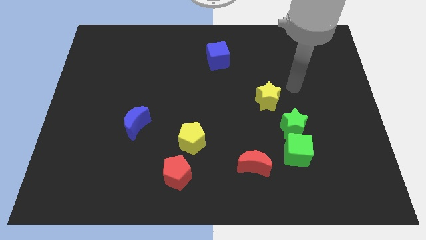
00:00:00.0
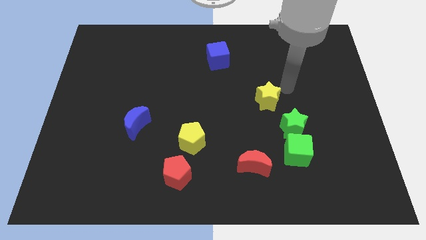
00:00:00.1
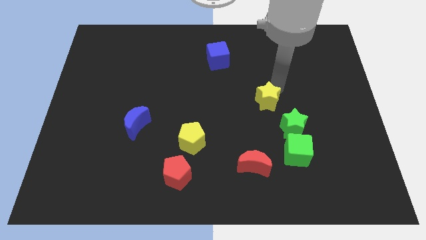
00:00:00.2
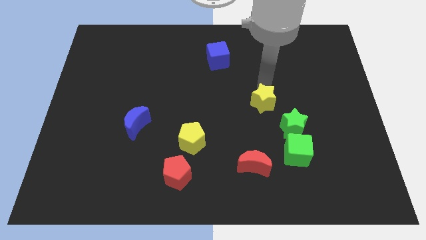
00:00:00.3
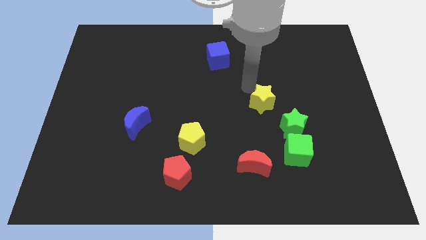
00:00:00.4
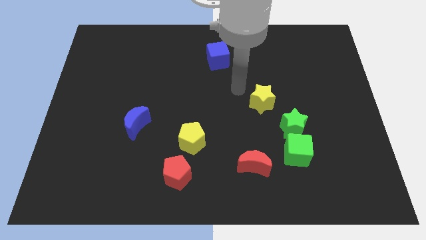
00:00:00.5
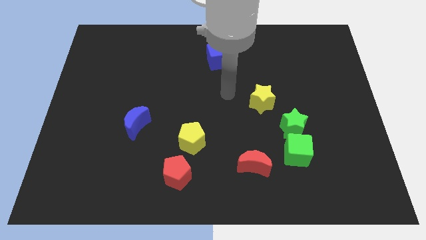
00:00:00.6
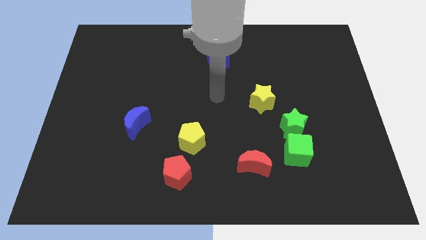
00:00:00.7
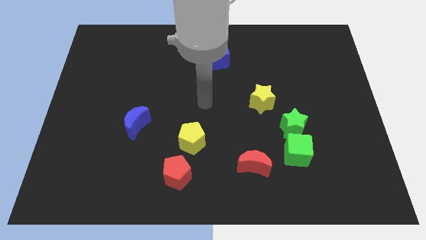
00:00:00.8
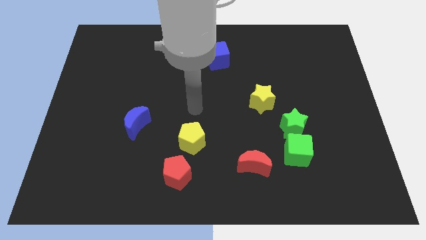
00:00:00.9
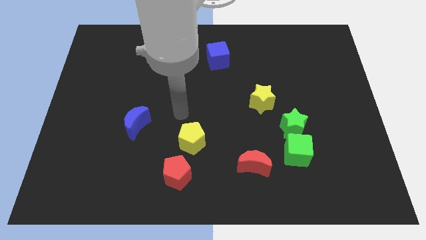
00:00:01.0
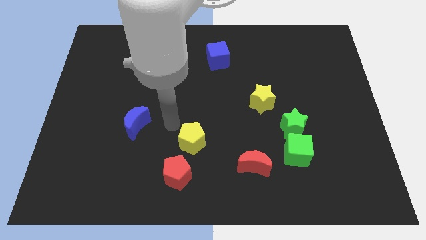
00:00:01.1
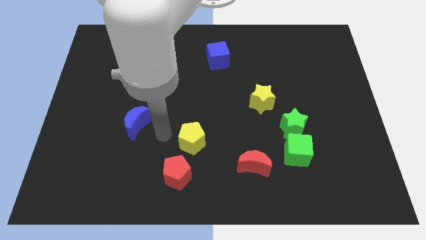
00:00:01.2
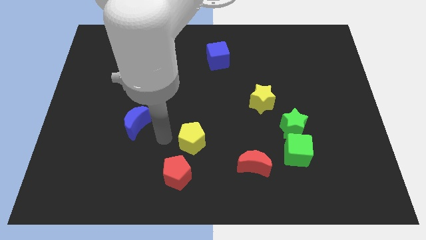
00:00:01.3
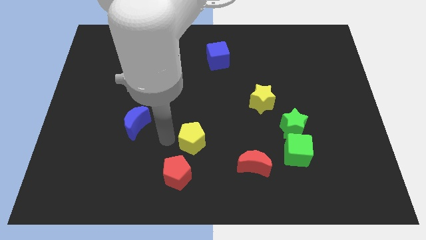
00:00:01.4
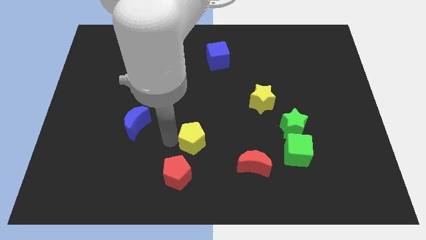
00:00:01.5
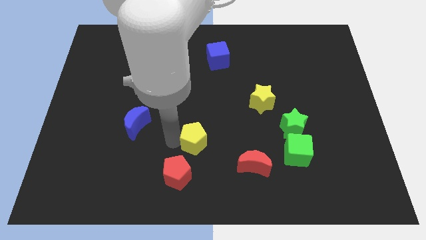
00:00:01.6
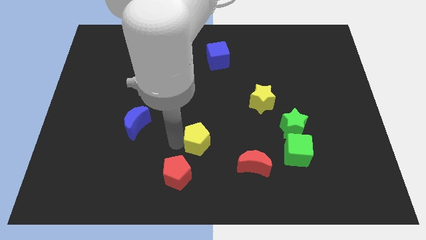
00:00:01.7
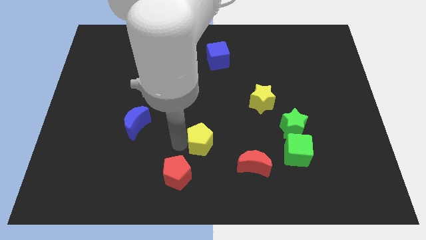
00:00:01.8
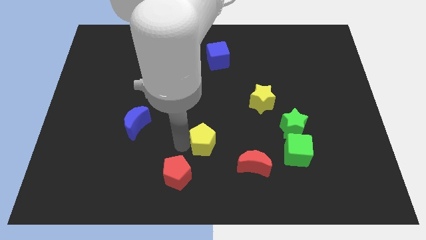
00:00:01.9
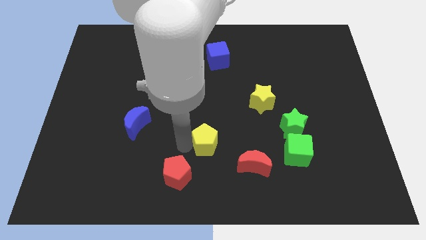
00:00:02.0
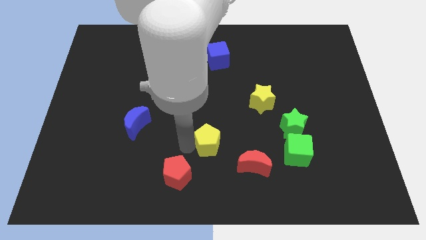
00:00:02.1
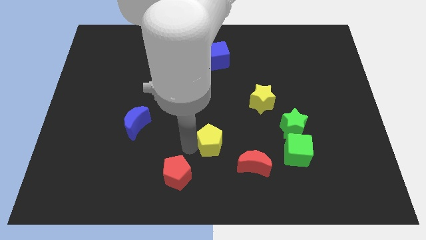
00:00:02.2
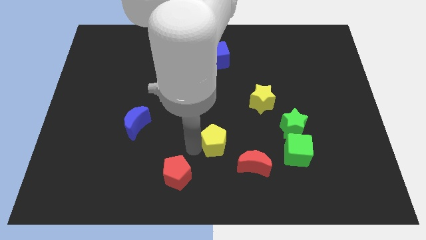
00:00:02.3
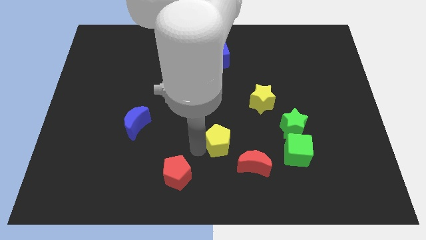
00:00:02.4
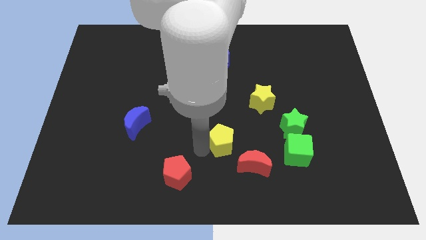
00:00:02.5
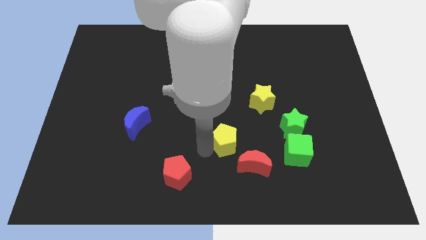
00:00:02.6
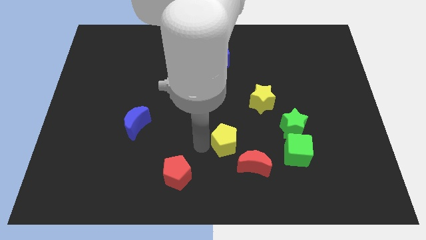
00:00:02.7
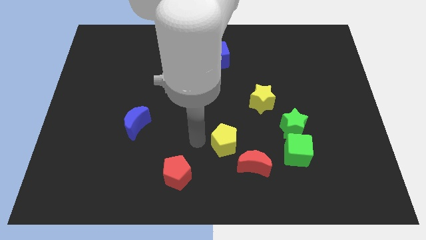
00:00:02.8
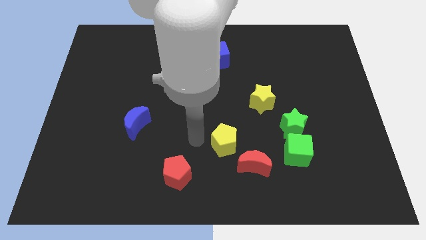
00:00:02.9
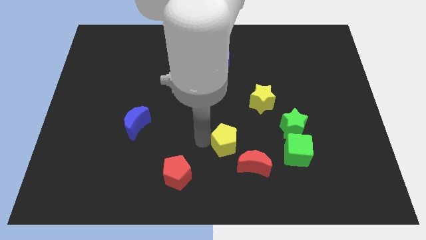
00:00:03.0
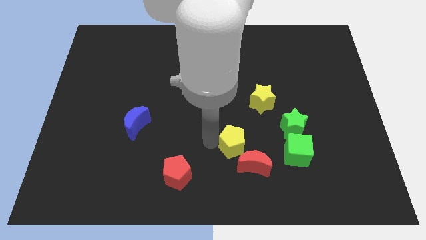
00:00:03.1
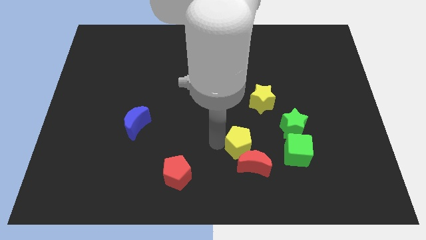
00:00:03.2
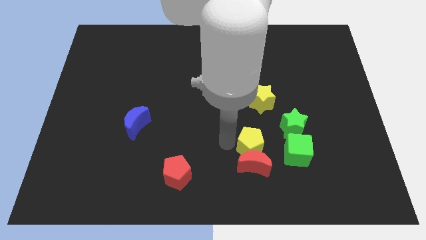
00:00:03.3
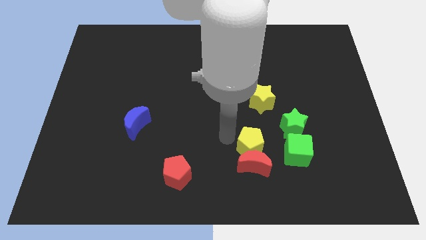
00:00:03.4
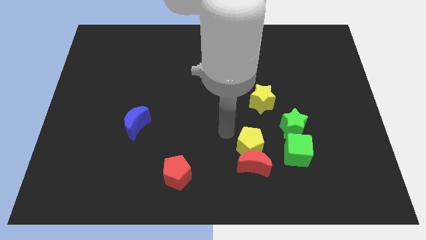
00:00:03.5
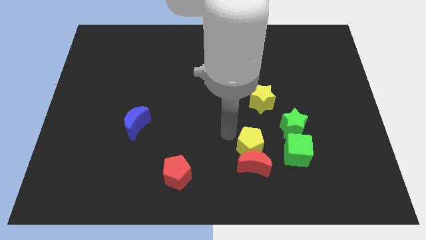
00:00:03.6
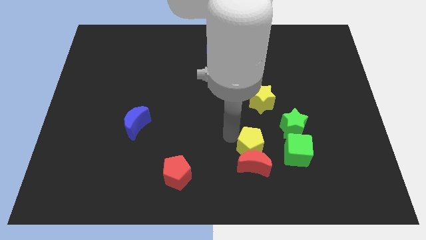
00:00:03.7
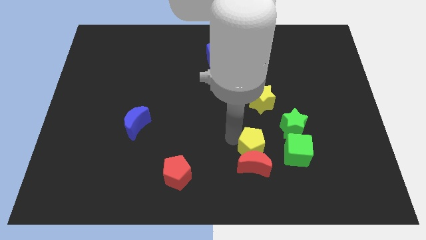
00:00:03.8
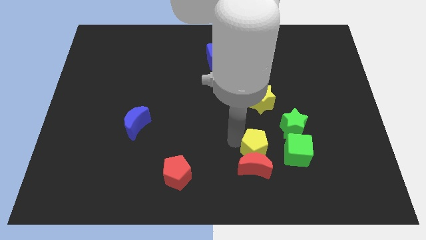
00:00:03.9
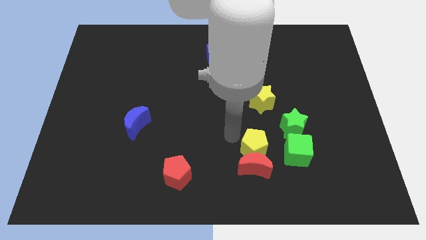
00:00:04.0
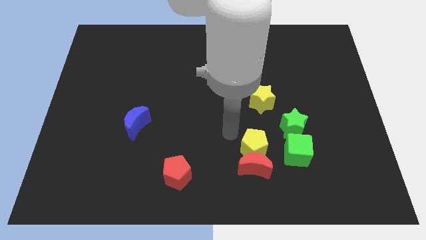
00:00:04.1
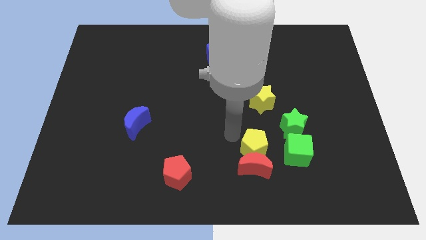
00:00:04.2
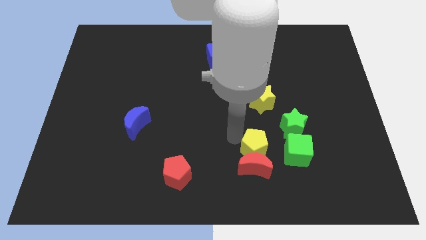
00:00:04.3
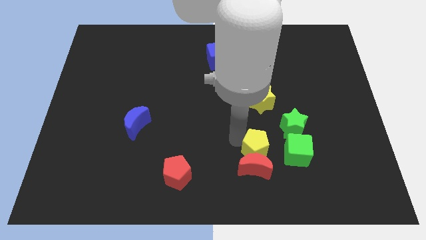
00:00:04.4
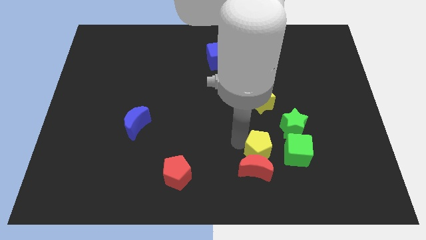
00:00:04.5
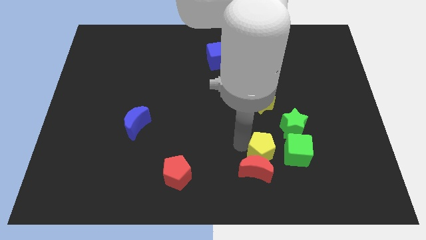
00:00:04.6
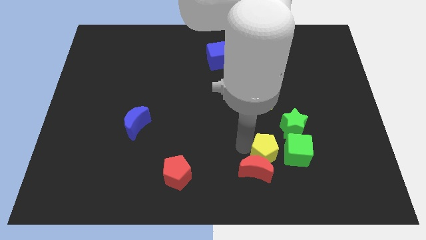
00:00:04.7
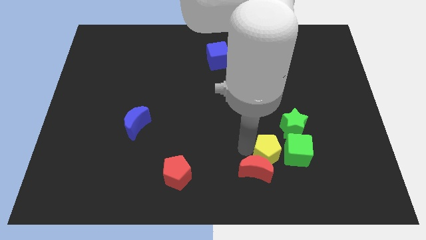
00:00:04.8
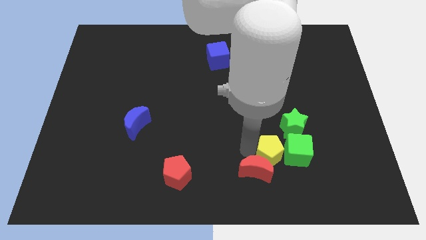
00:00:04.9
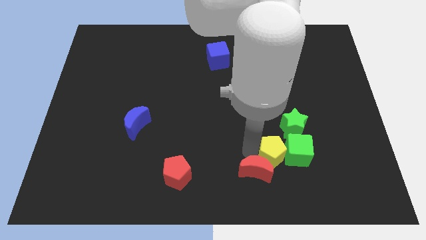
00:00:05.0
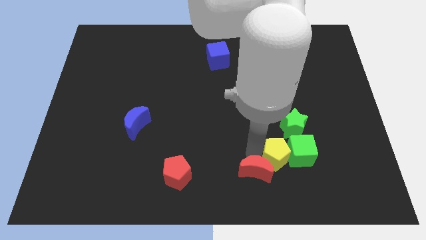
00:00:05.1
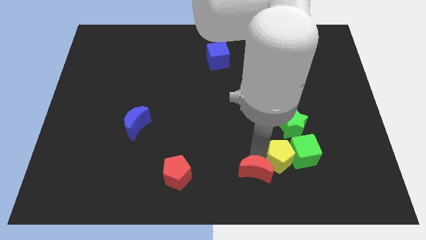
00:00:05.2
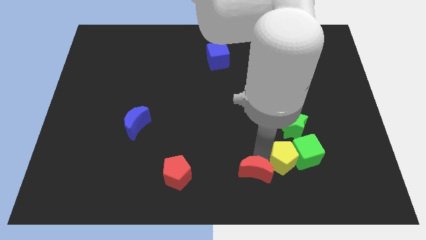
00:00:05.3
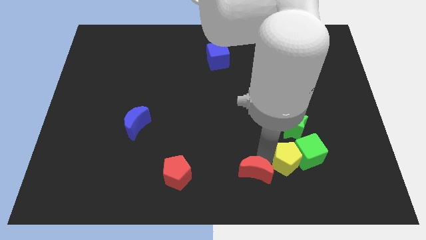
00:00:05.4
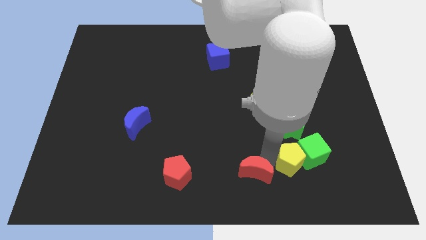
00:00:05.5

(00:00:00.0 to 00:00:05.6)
push the yellow pentagon to the right

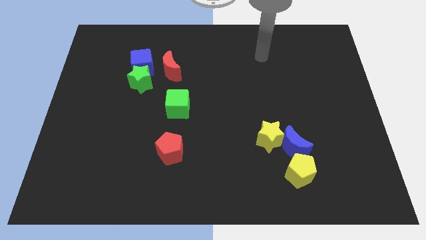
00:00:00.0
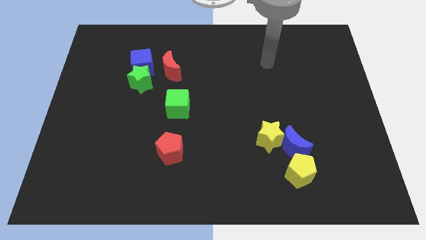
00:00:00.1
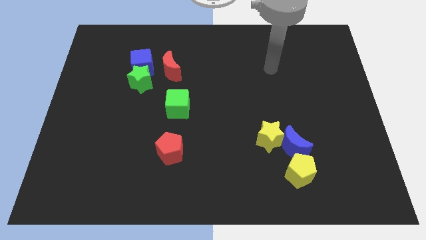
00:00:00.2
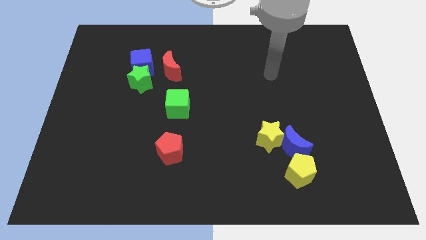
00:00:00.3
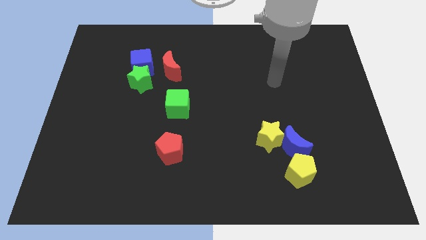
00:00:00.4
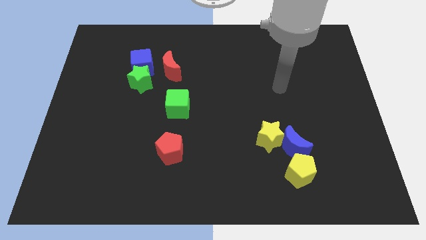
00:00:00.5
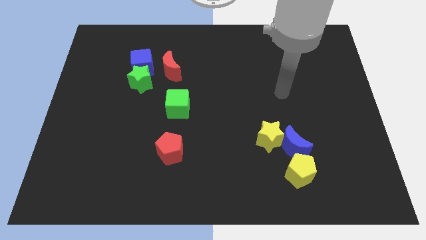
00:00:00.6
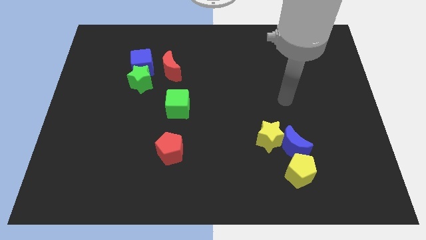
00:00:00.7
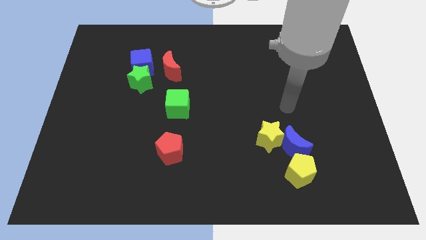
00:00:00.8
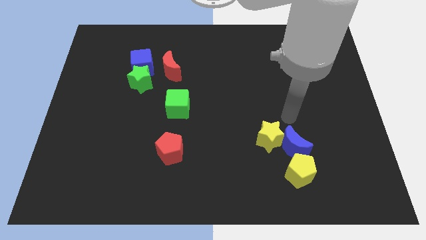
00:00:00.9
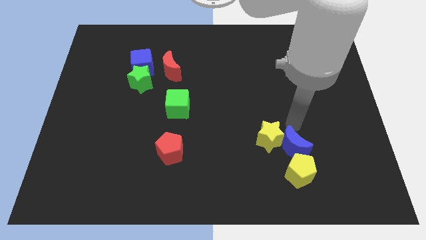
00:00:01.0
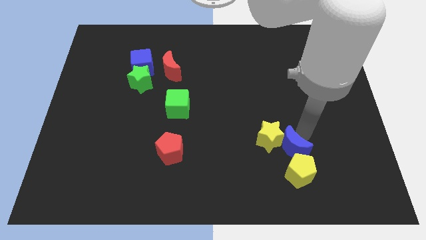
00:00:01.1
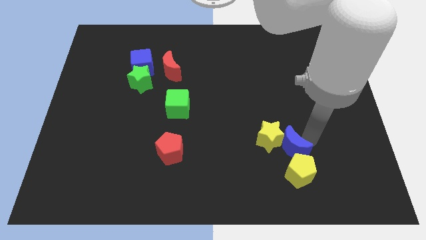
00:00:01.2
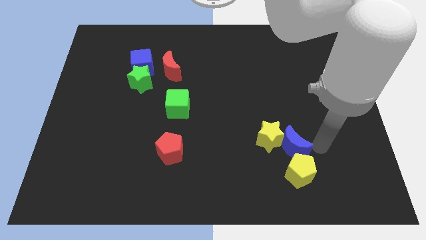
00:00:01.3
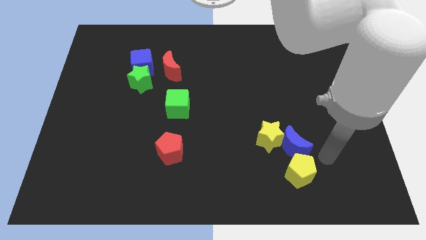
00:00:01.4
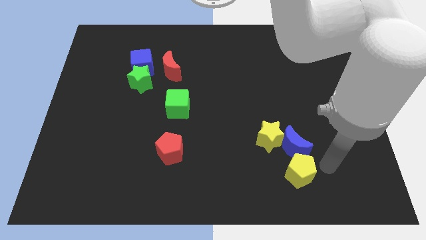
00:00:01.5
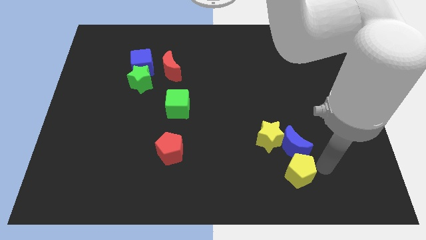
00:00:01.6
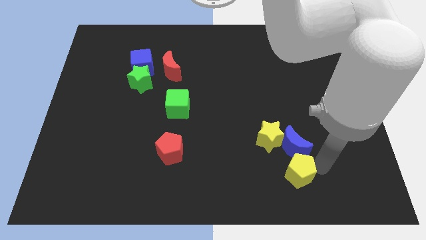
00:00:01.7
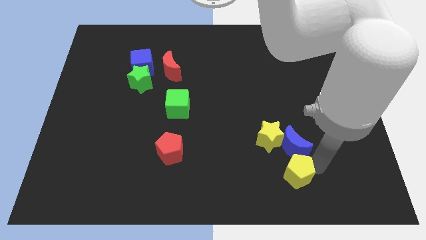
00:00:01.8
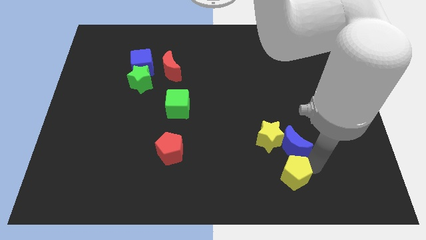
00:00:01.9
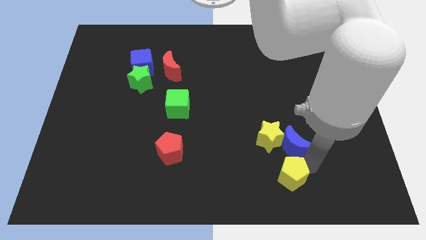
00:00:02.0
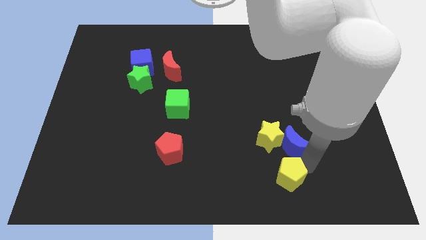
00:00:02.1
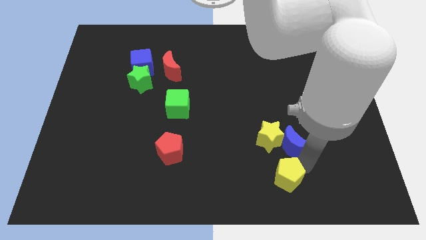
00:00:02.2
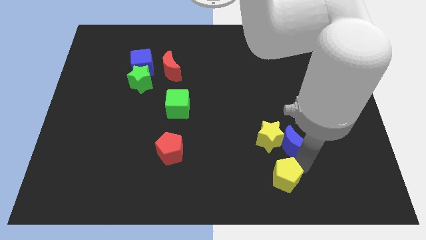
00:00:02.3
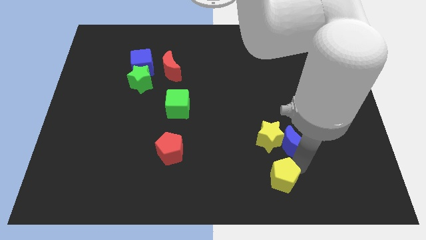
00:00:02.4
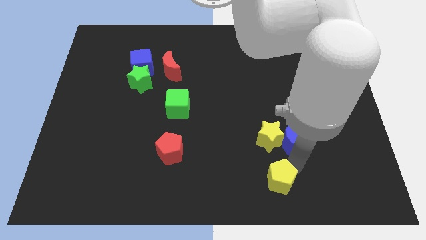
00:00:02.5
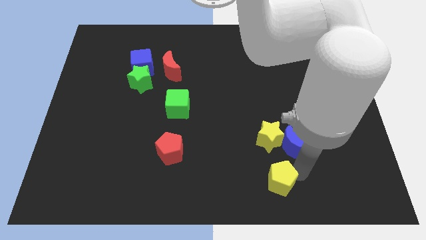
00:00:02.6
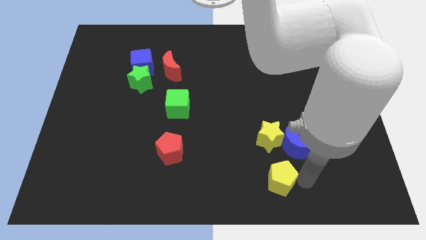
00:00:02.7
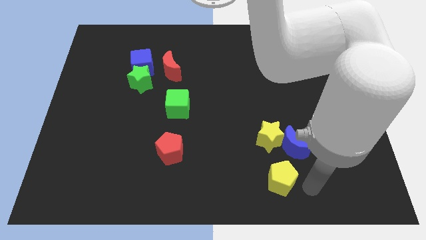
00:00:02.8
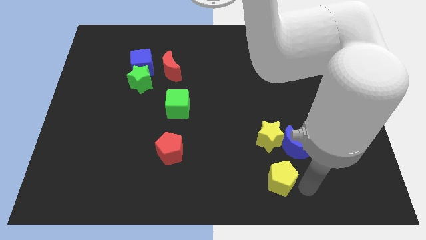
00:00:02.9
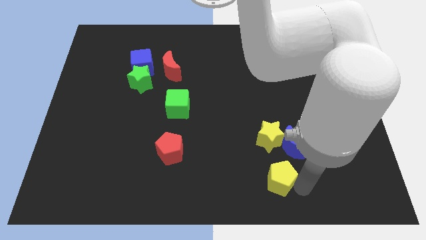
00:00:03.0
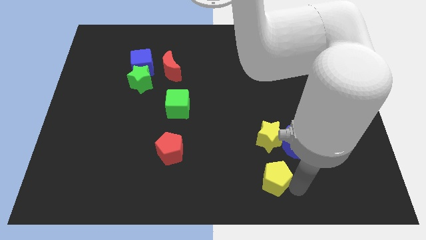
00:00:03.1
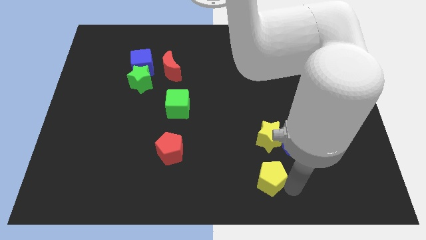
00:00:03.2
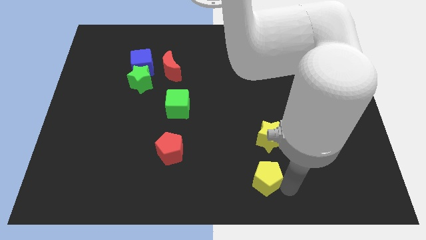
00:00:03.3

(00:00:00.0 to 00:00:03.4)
slide the yellow pentagon slightly to the left
